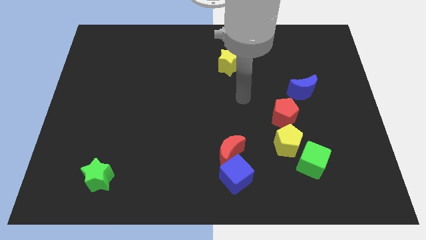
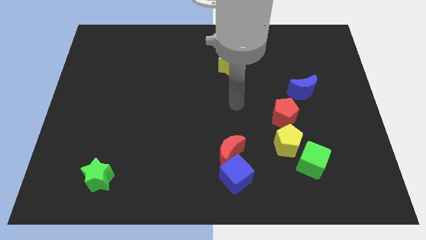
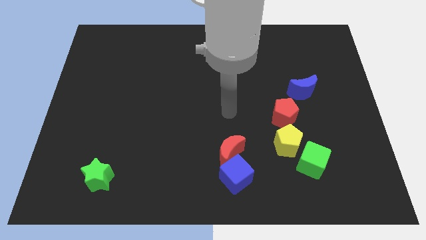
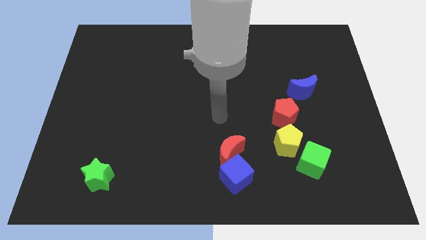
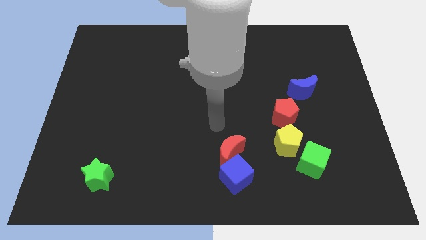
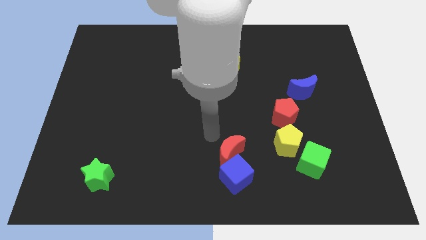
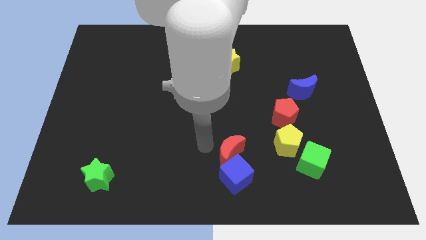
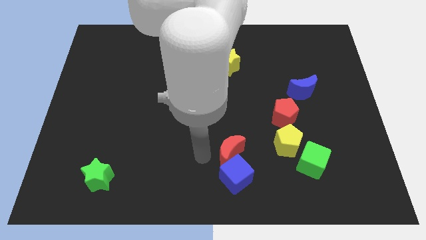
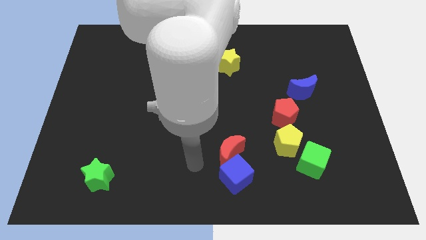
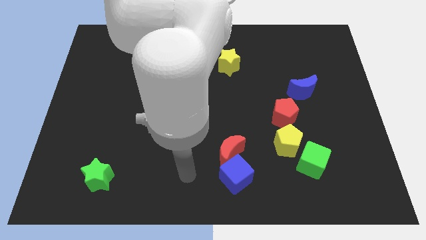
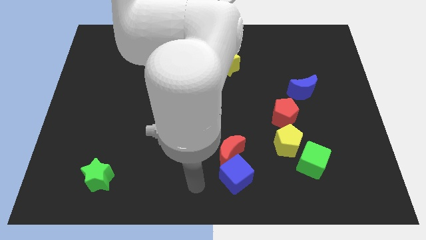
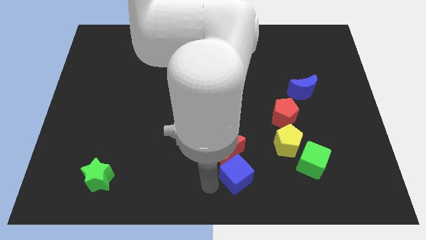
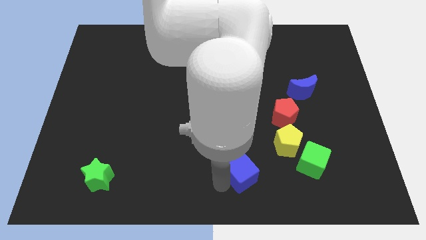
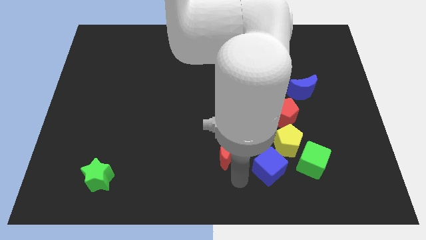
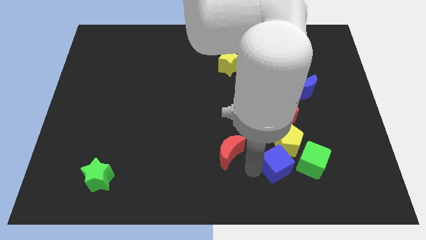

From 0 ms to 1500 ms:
separate the red moon from the blue cube

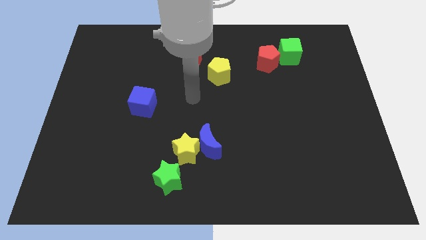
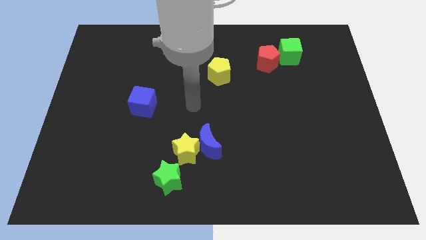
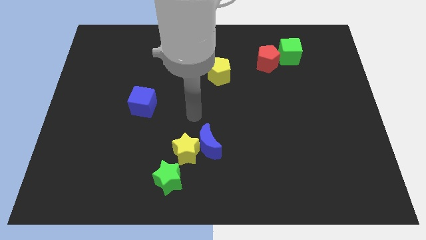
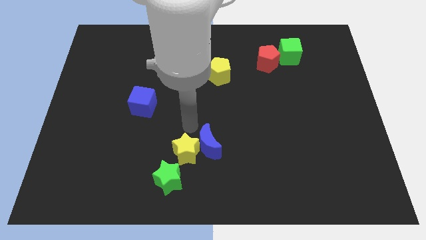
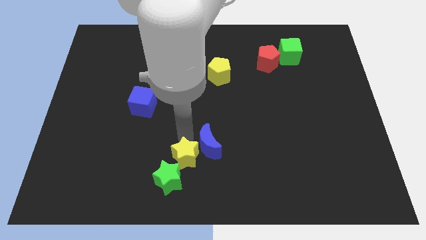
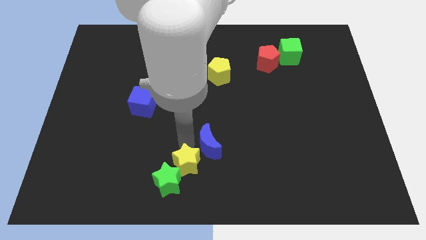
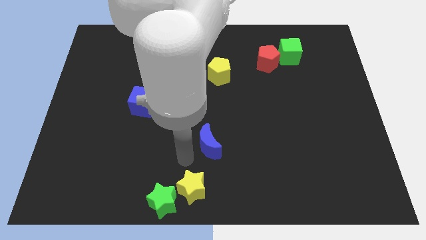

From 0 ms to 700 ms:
move the blue moon away from the yellow star

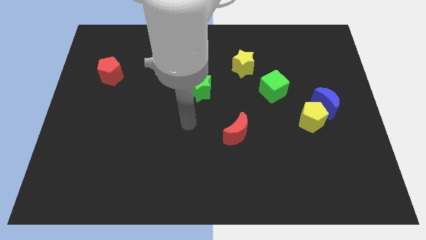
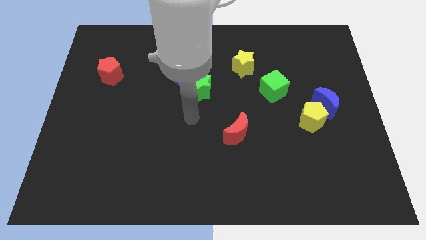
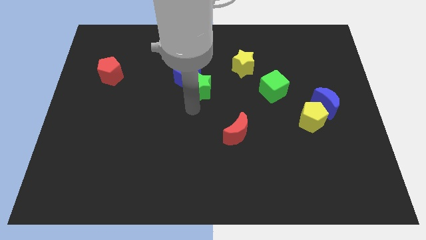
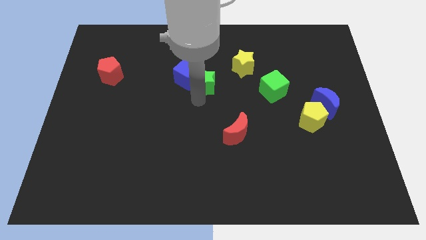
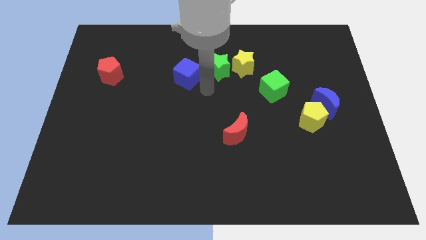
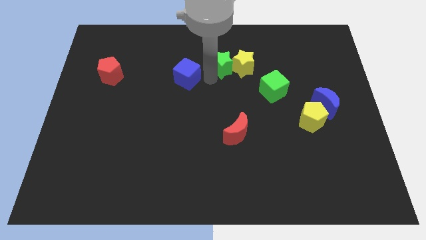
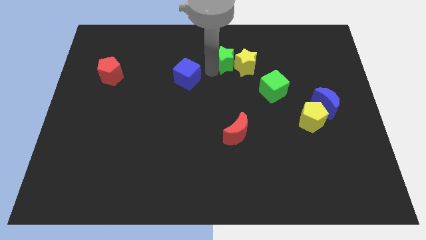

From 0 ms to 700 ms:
move the blue cube away from the green star

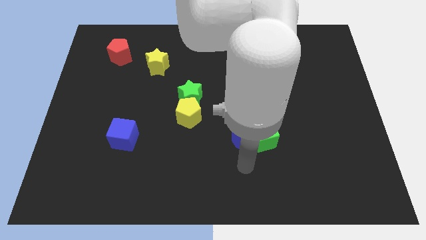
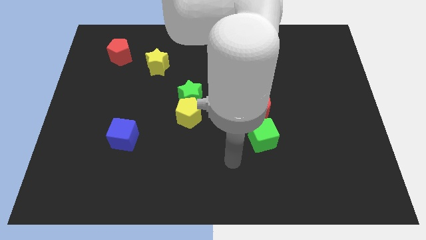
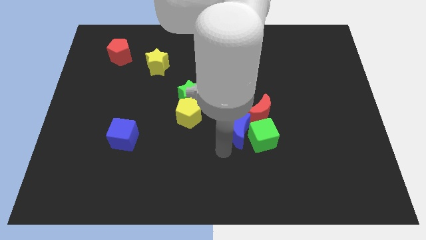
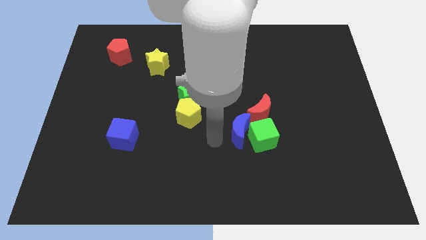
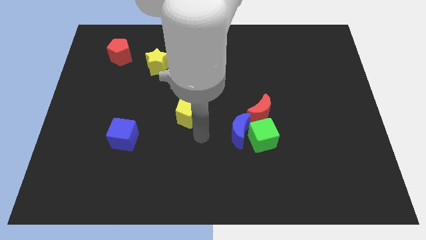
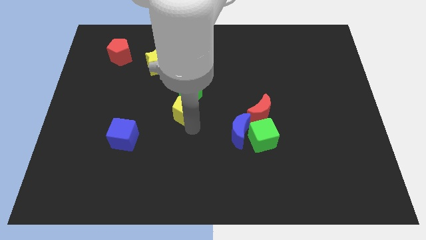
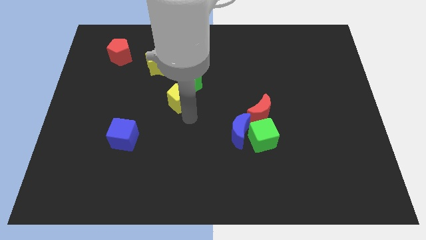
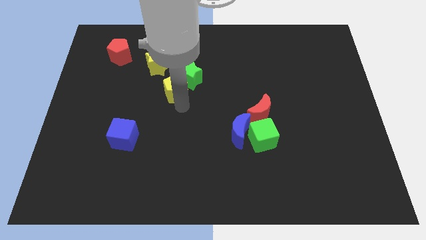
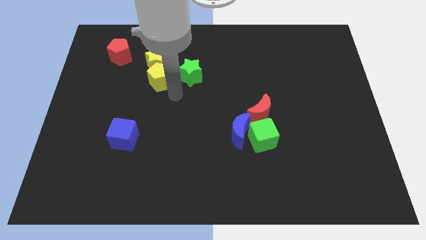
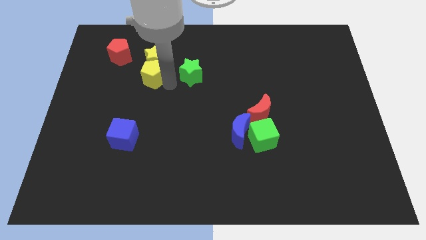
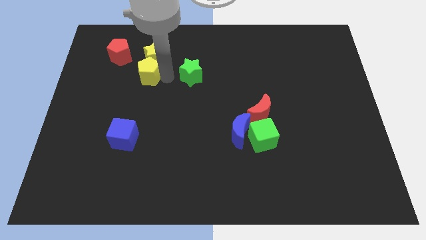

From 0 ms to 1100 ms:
separate the green star from the yellow pentagon

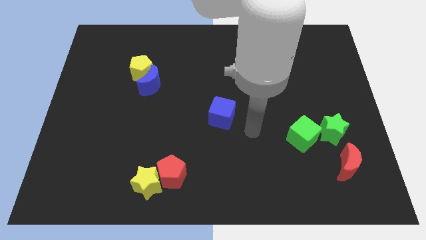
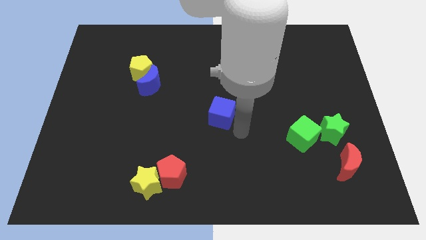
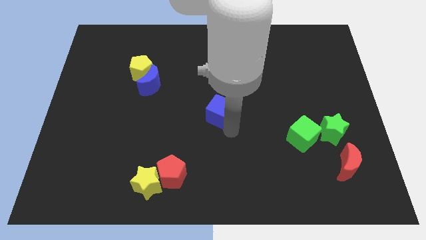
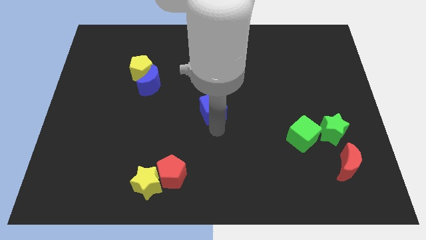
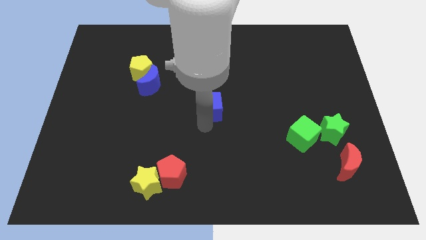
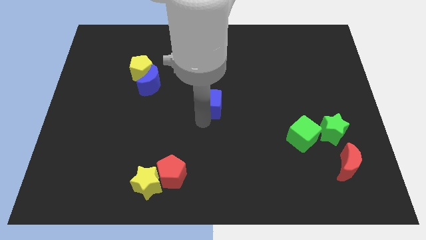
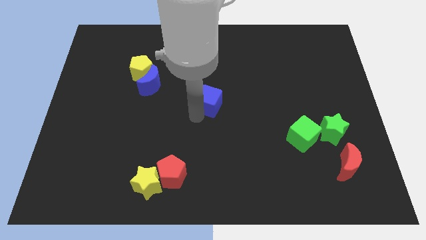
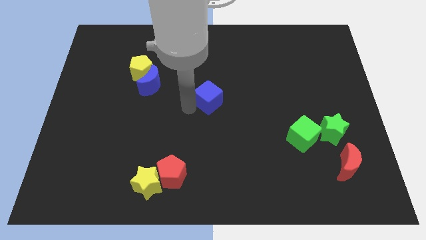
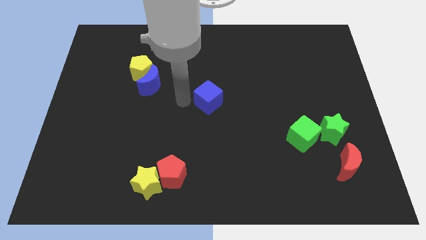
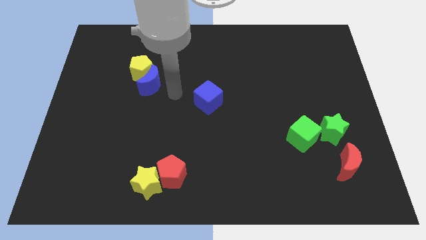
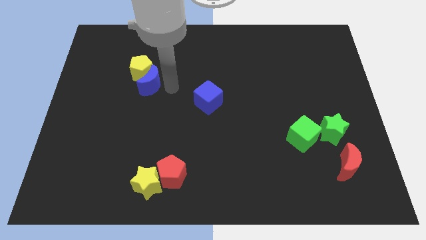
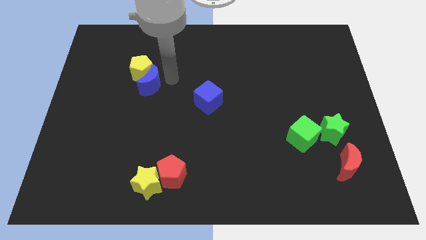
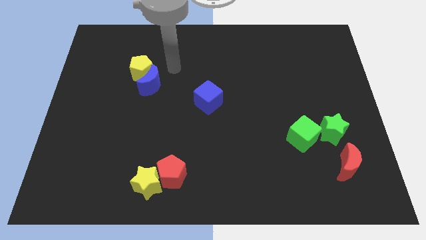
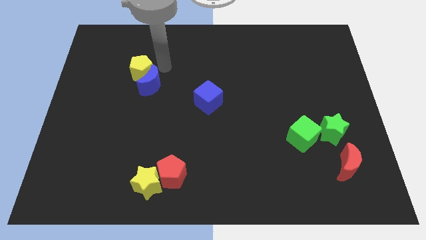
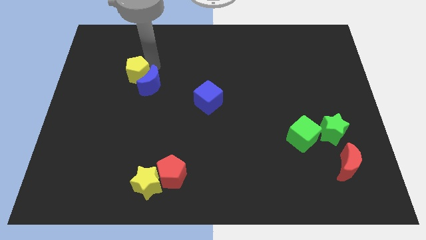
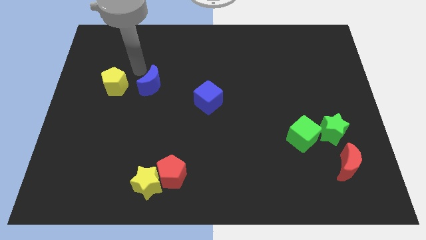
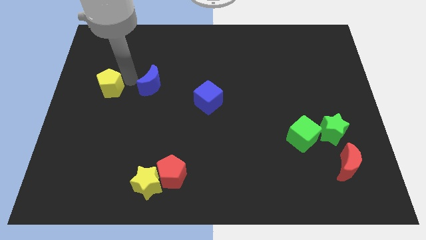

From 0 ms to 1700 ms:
pull the blue moon apart from the yellow pentagon

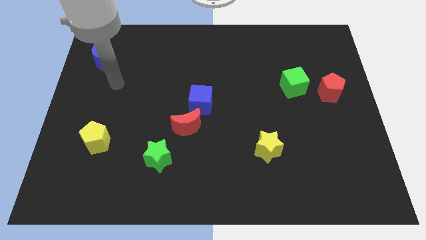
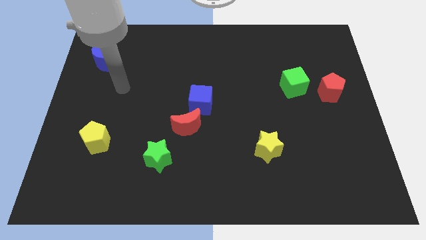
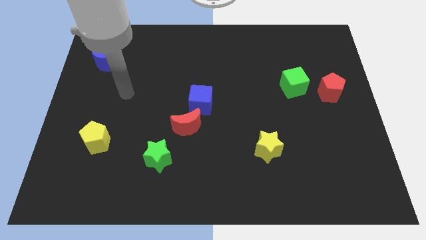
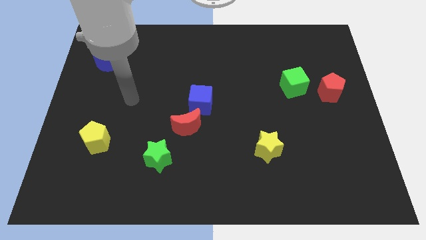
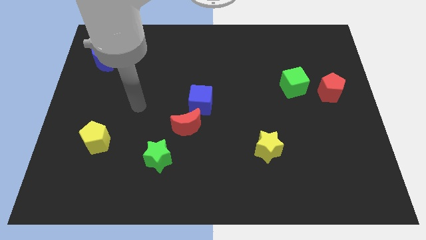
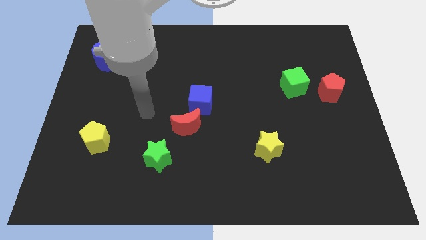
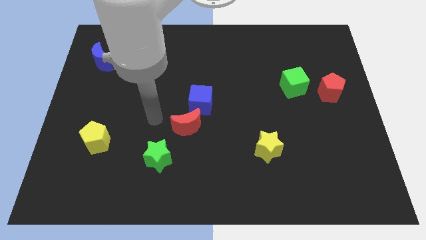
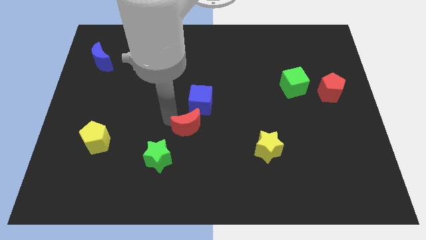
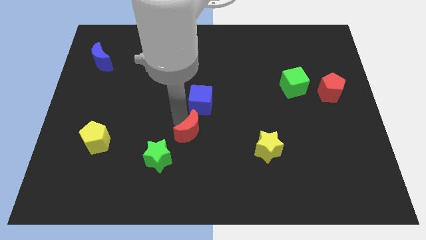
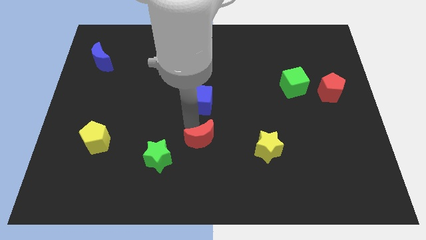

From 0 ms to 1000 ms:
separate the blue cube from the red moon

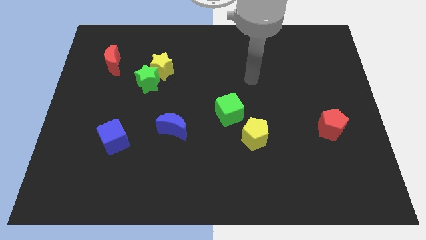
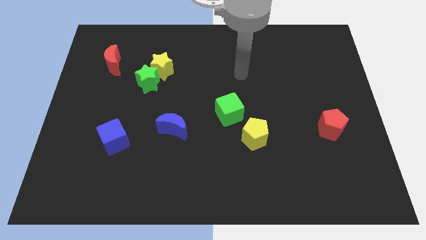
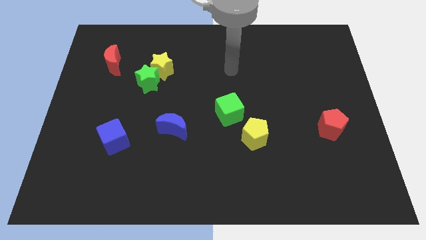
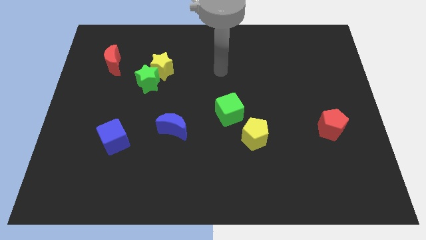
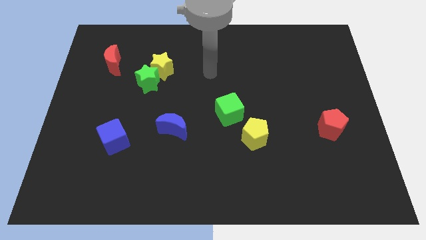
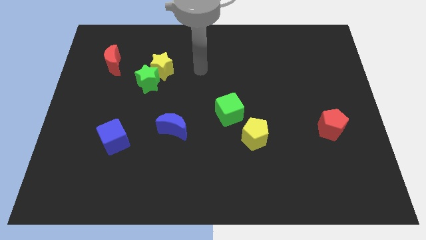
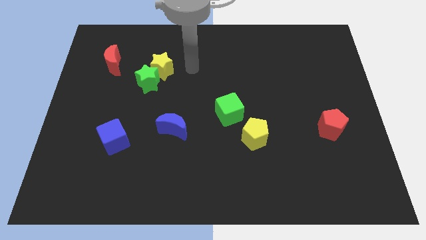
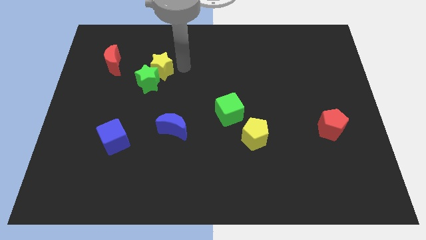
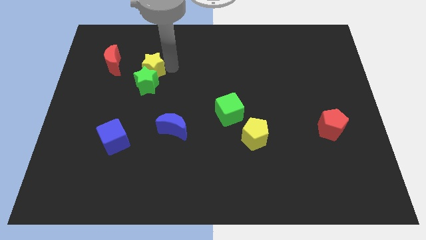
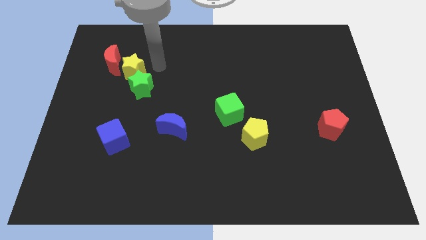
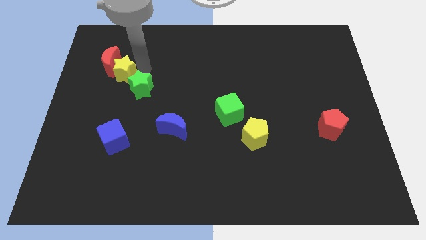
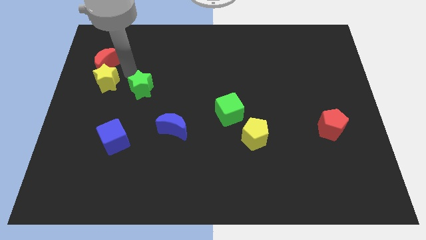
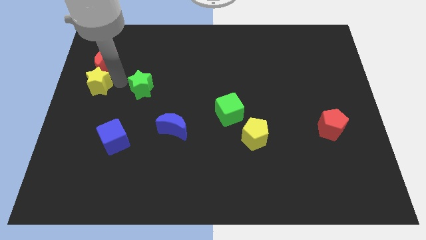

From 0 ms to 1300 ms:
pull the green star apart from the yellow star

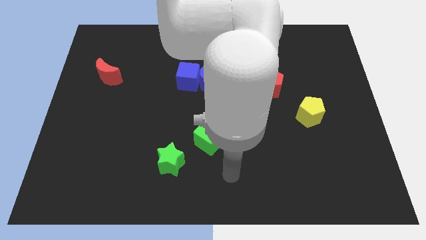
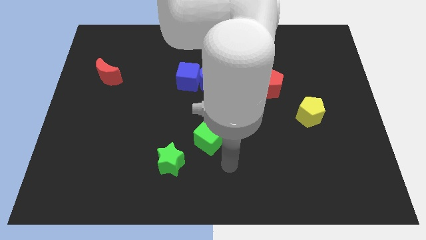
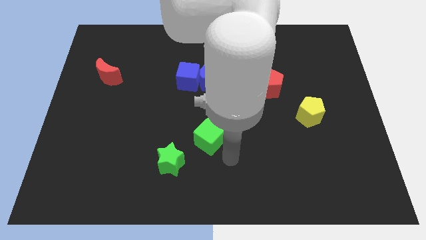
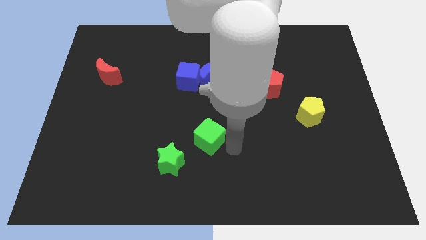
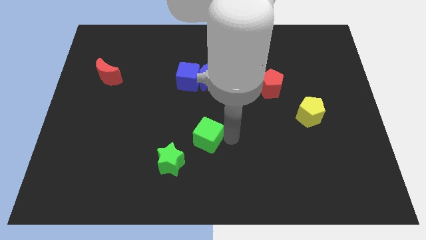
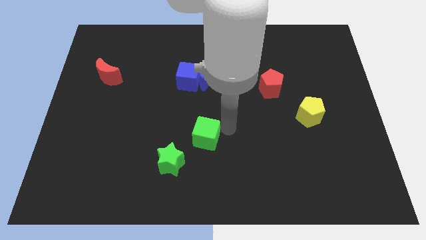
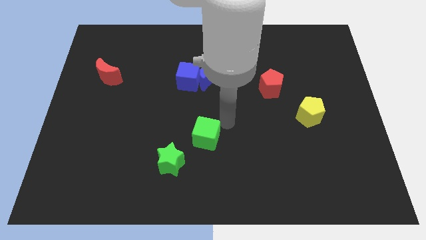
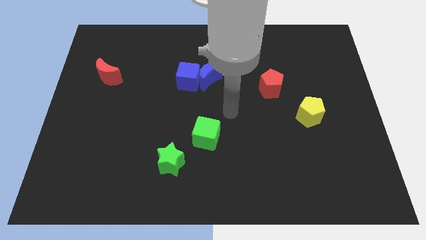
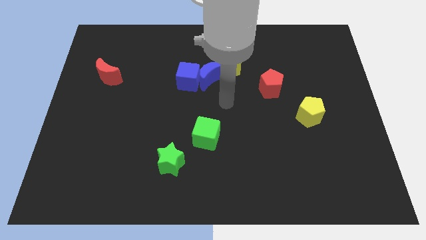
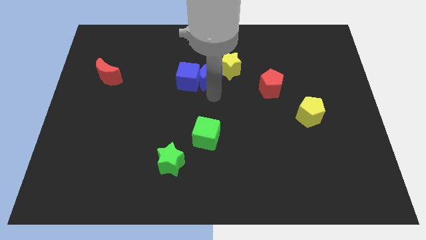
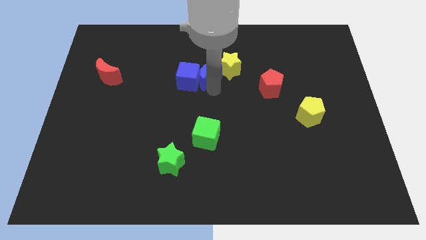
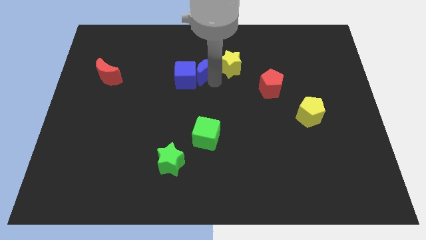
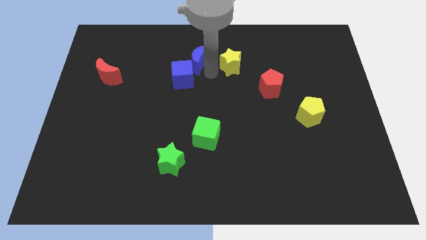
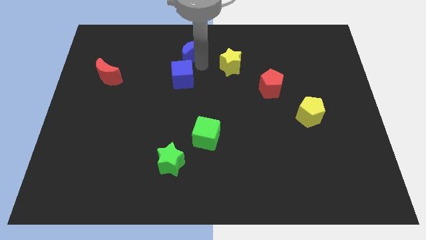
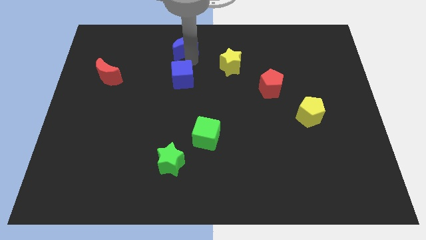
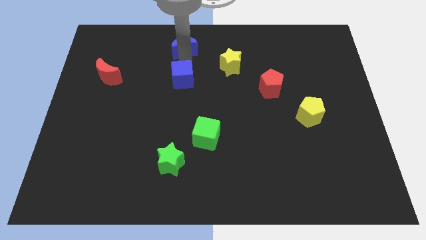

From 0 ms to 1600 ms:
separate the blue cube from the blue moon
